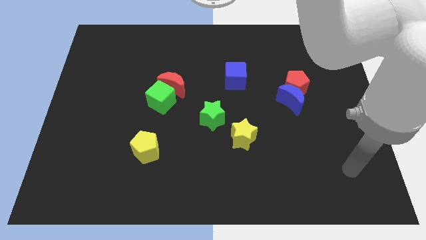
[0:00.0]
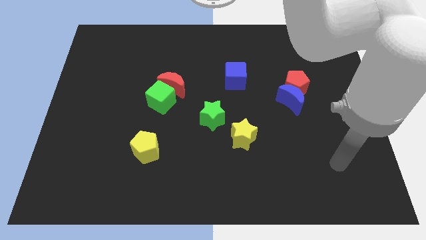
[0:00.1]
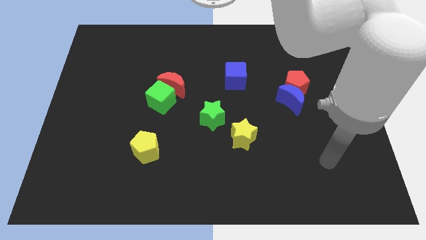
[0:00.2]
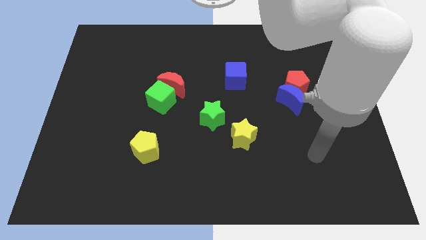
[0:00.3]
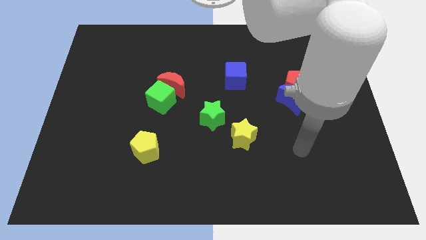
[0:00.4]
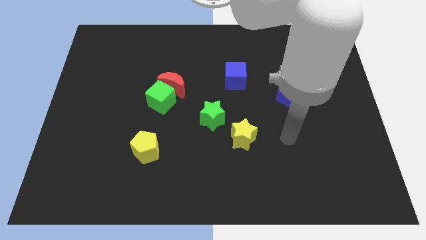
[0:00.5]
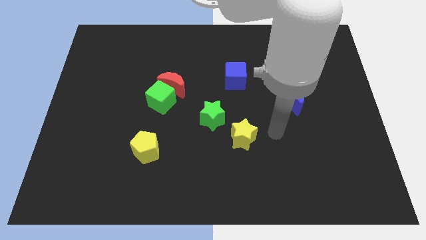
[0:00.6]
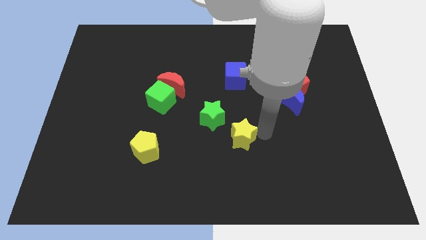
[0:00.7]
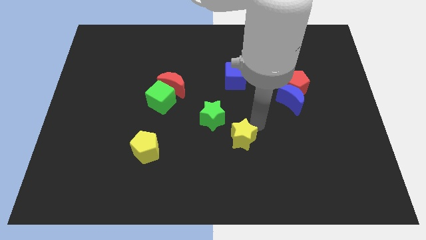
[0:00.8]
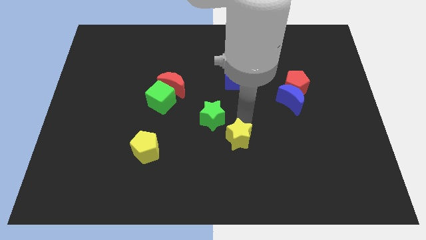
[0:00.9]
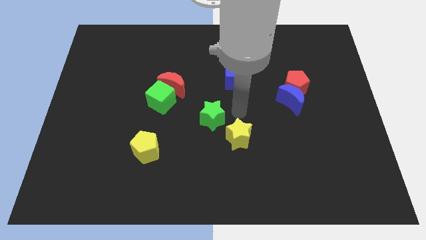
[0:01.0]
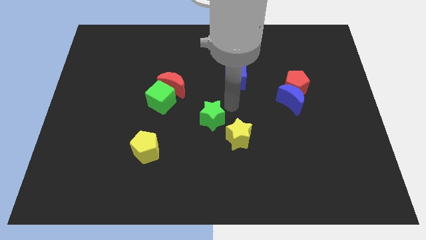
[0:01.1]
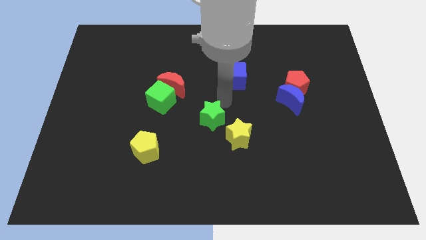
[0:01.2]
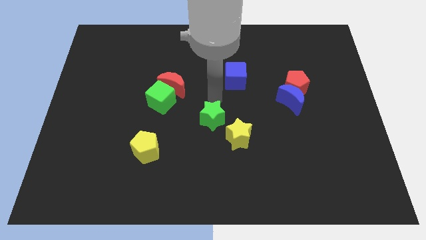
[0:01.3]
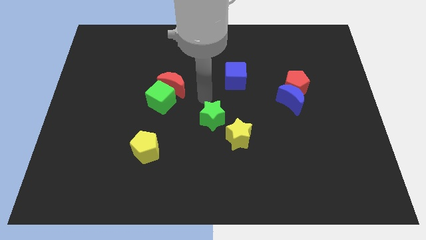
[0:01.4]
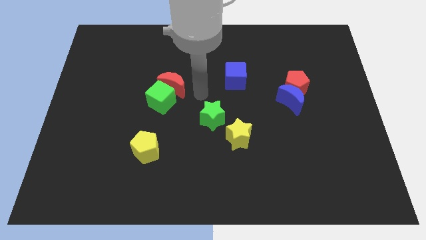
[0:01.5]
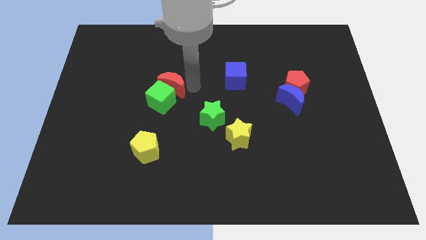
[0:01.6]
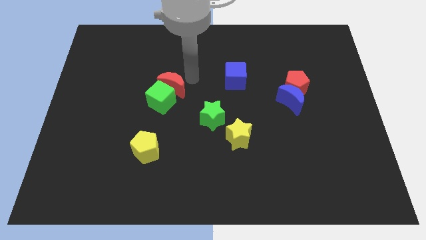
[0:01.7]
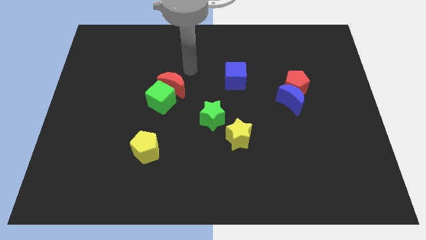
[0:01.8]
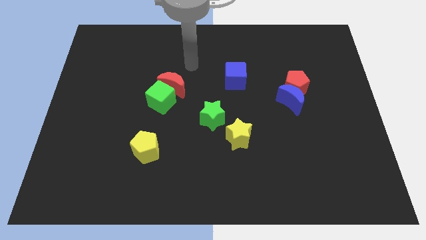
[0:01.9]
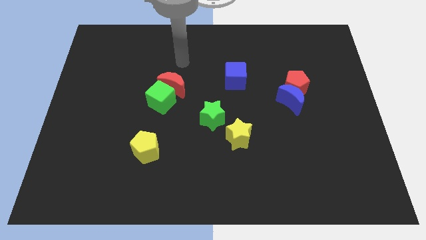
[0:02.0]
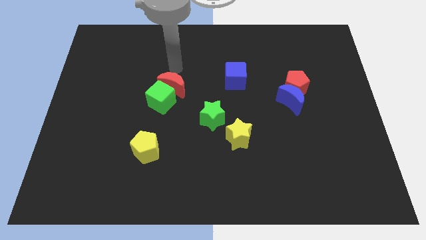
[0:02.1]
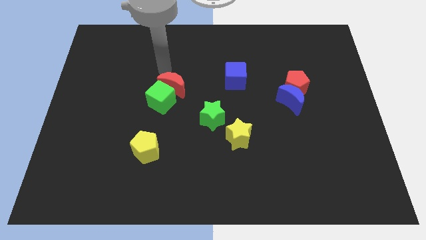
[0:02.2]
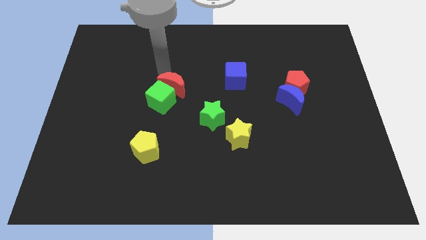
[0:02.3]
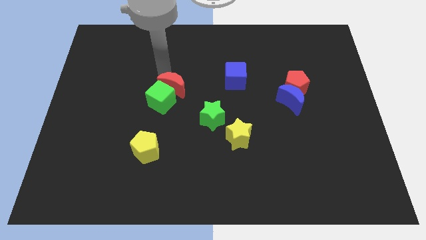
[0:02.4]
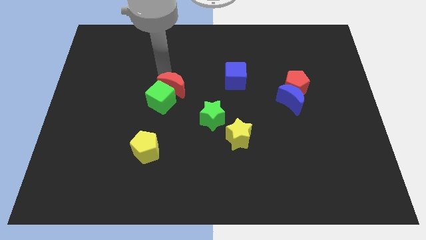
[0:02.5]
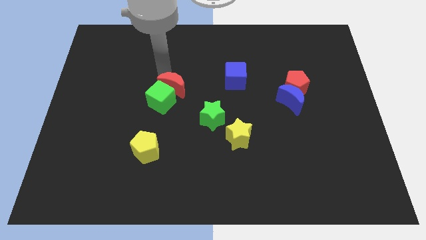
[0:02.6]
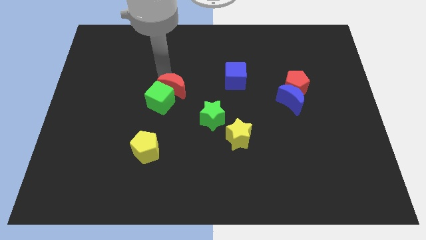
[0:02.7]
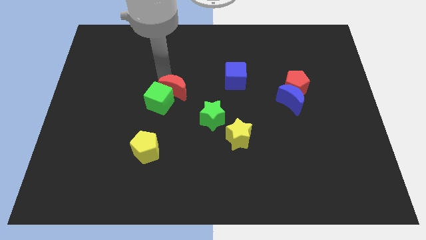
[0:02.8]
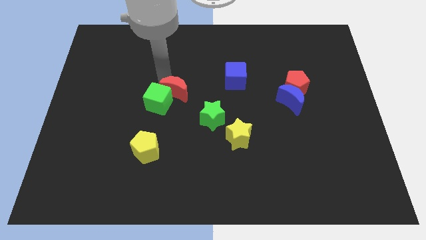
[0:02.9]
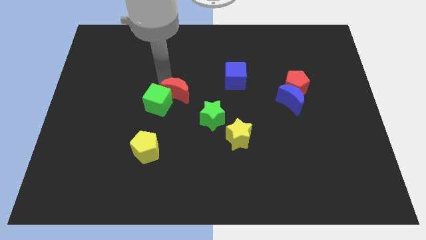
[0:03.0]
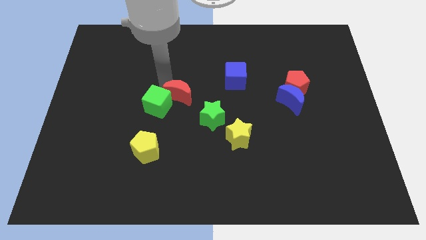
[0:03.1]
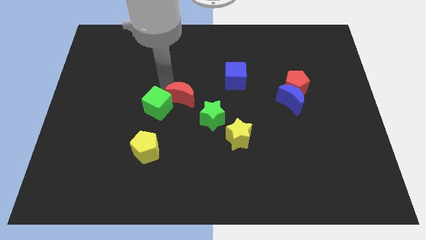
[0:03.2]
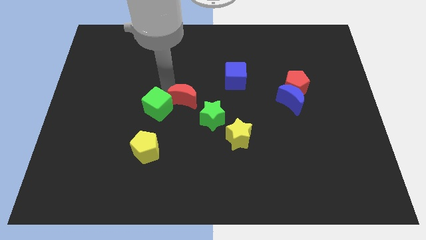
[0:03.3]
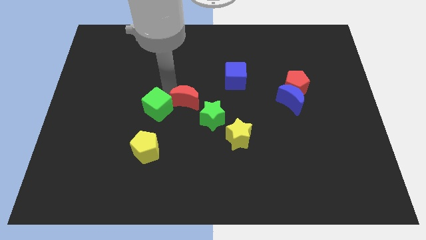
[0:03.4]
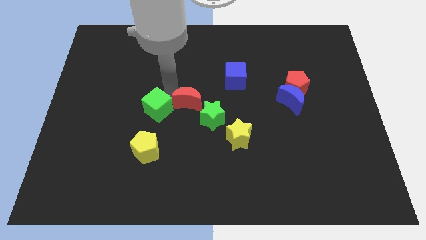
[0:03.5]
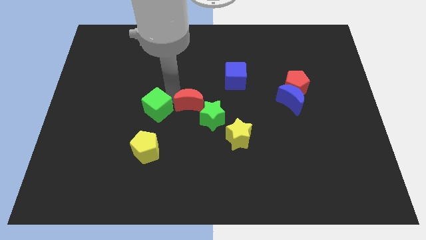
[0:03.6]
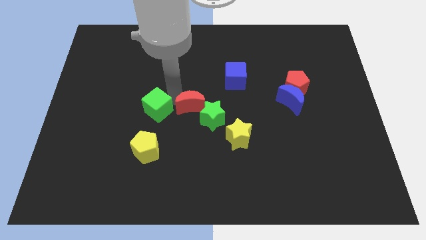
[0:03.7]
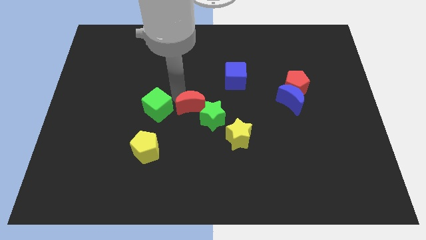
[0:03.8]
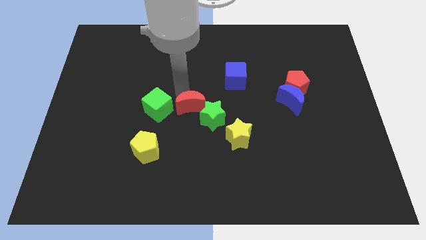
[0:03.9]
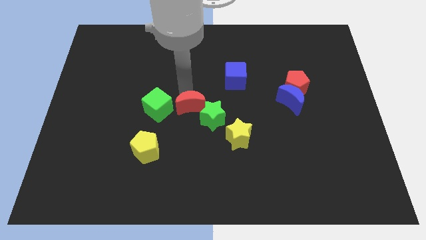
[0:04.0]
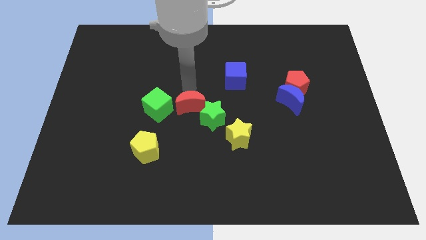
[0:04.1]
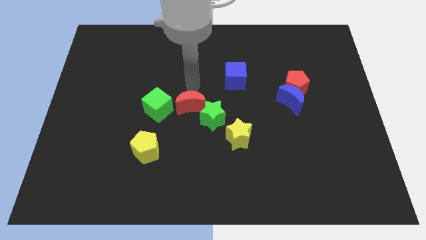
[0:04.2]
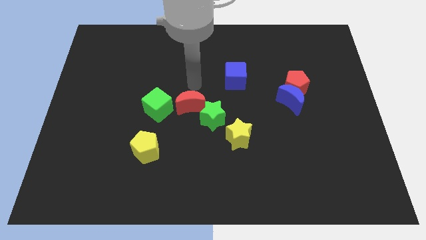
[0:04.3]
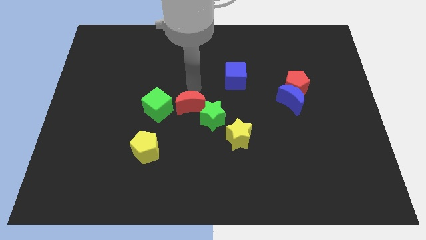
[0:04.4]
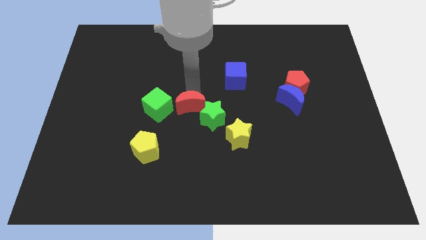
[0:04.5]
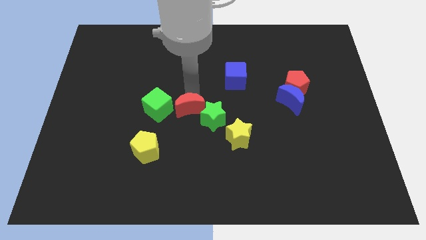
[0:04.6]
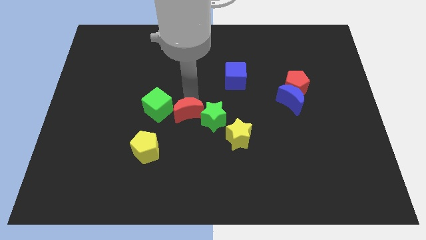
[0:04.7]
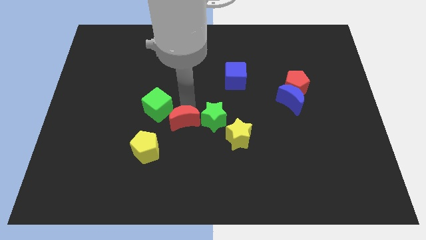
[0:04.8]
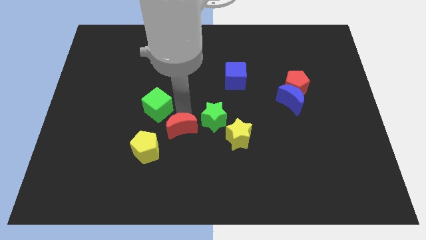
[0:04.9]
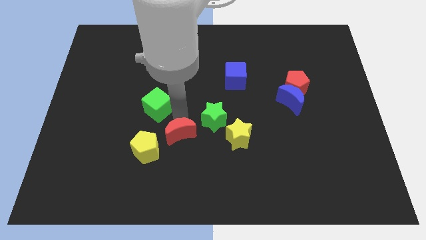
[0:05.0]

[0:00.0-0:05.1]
slide the red moon just right of the yellow pentagon

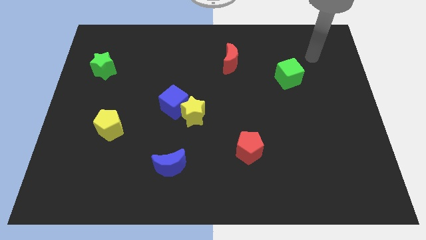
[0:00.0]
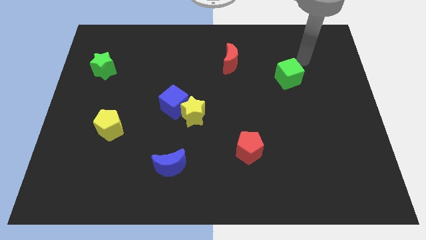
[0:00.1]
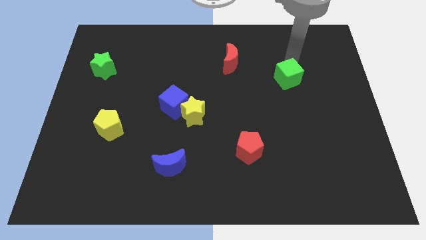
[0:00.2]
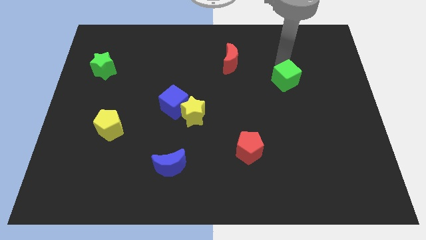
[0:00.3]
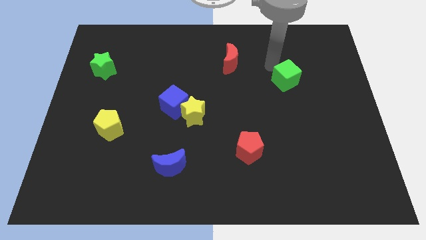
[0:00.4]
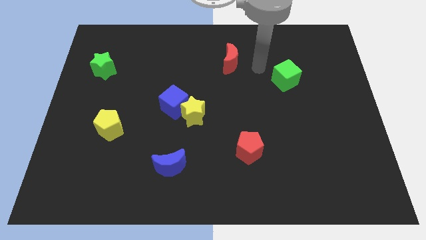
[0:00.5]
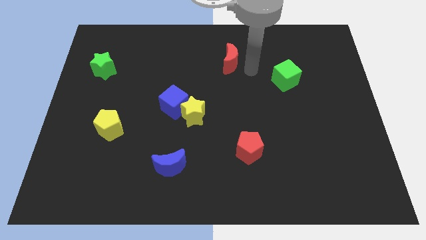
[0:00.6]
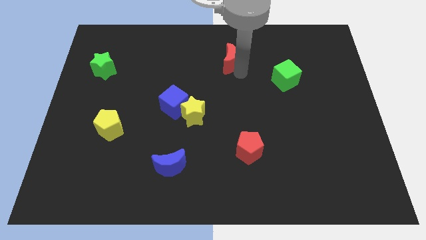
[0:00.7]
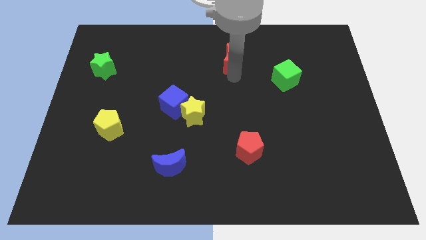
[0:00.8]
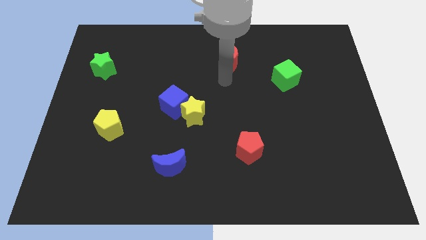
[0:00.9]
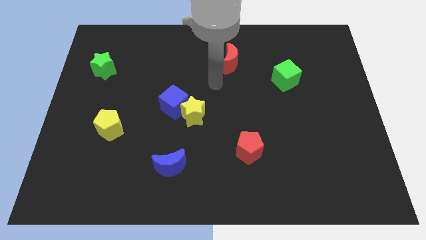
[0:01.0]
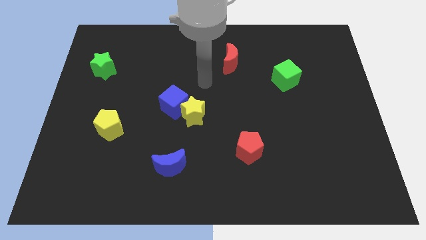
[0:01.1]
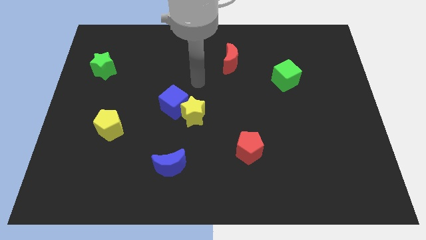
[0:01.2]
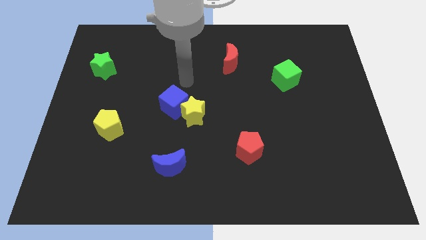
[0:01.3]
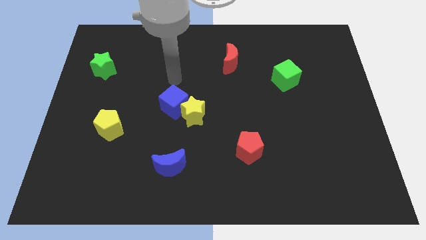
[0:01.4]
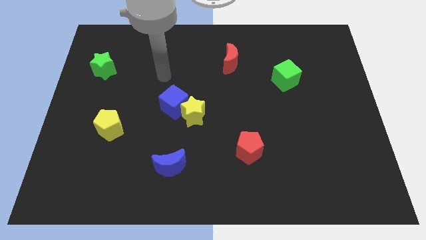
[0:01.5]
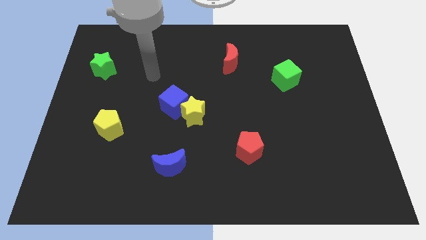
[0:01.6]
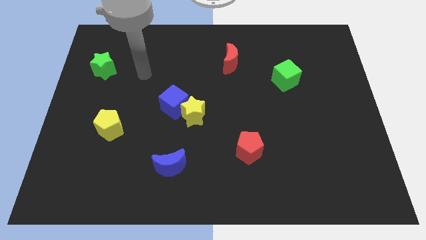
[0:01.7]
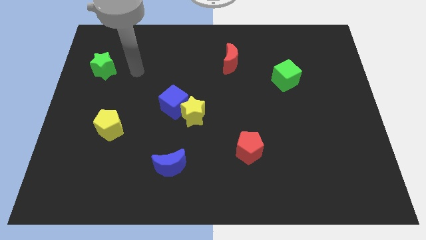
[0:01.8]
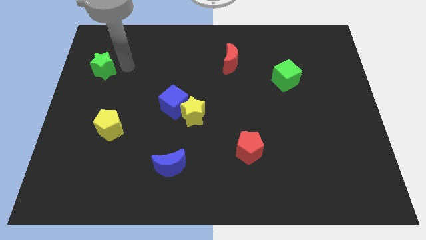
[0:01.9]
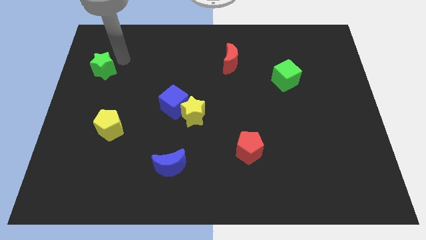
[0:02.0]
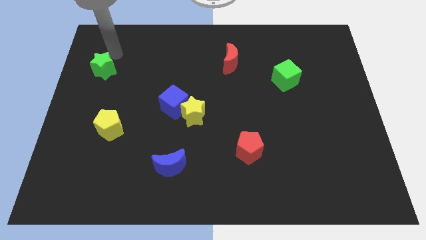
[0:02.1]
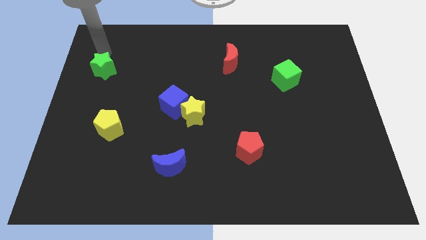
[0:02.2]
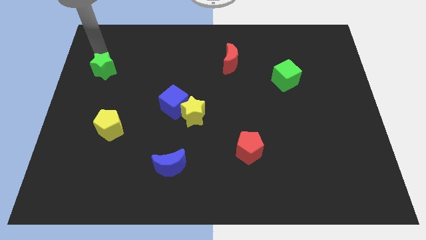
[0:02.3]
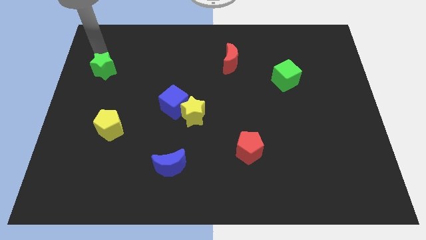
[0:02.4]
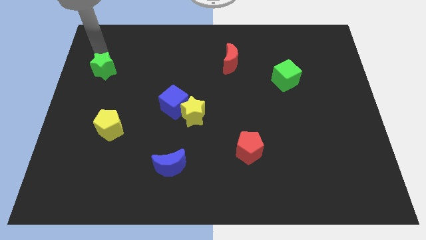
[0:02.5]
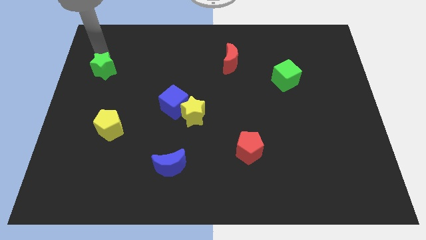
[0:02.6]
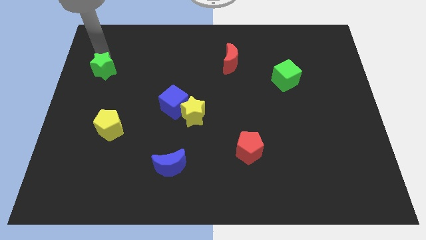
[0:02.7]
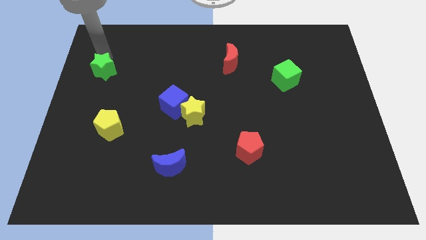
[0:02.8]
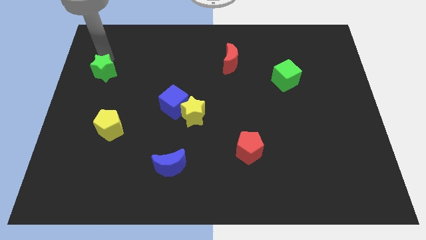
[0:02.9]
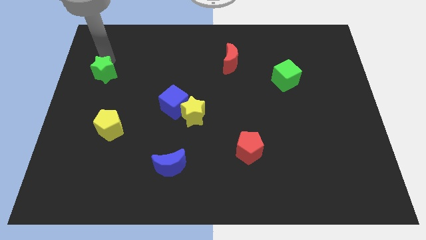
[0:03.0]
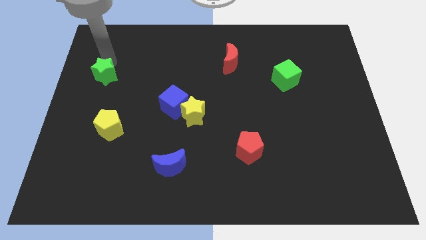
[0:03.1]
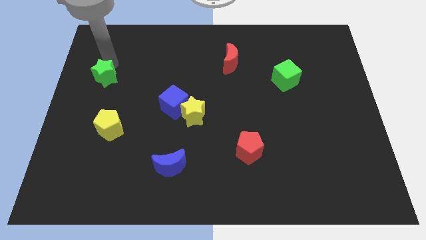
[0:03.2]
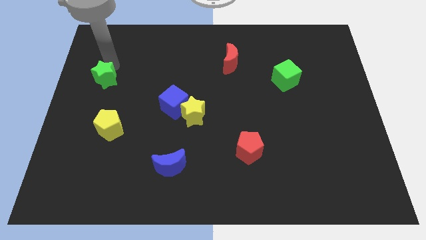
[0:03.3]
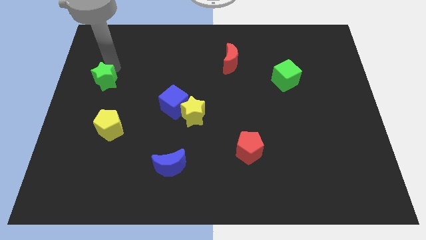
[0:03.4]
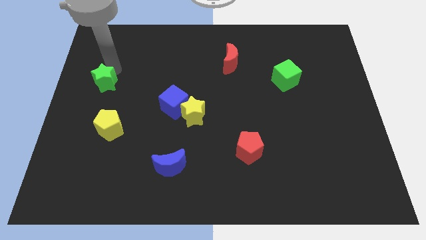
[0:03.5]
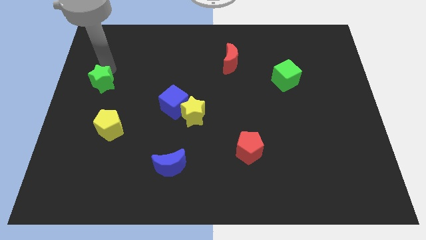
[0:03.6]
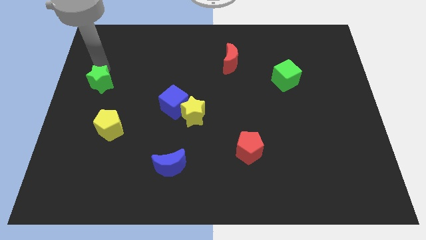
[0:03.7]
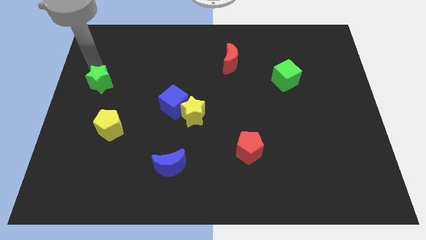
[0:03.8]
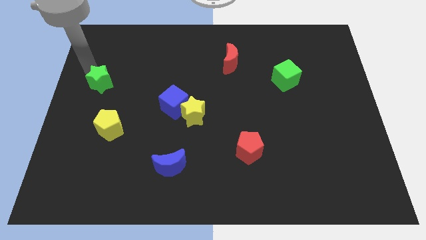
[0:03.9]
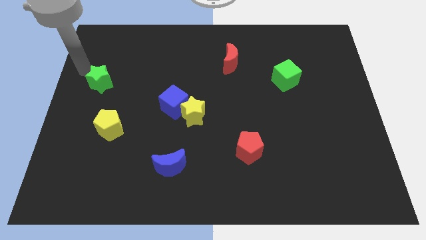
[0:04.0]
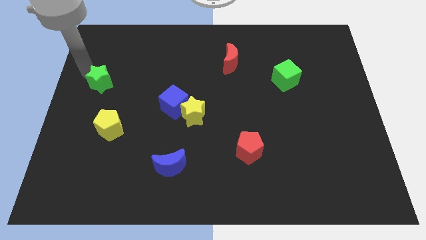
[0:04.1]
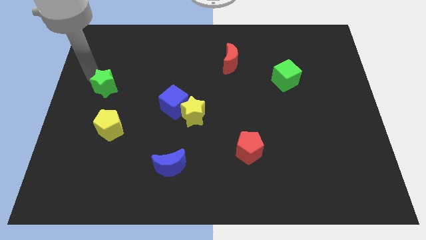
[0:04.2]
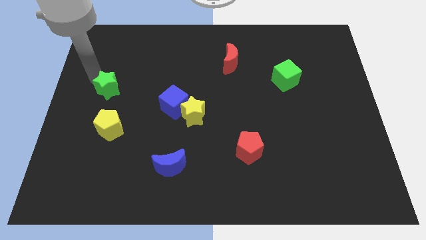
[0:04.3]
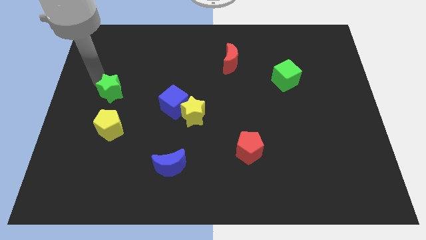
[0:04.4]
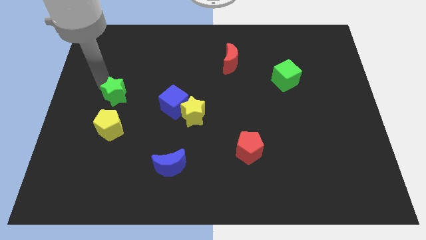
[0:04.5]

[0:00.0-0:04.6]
slide the green star to the left side of the blue cube
